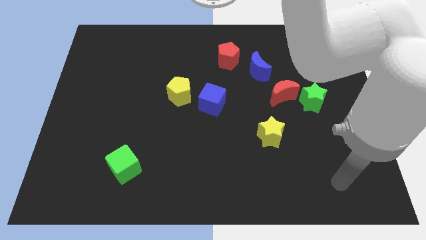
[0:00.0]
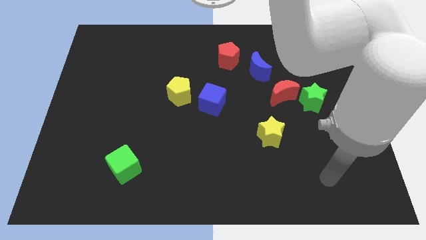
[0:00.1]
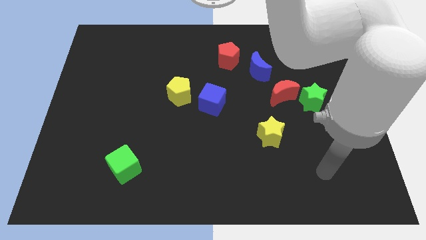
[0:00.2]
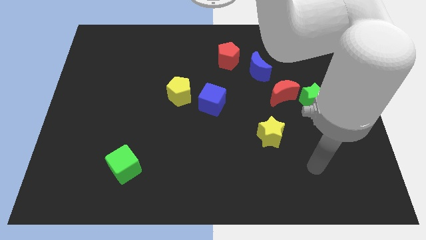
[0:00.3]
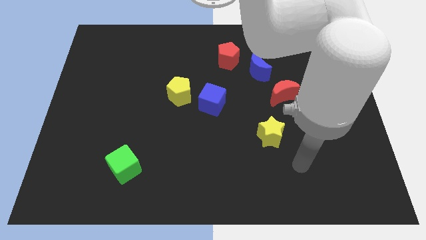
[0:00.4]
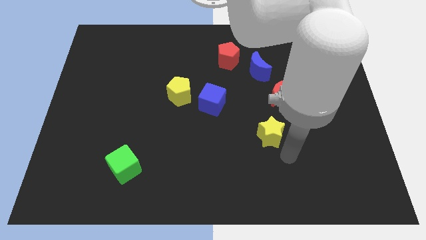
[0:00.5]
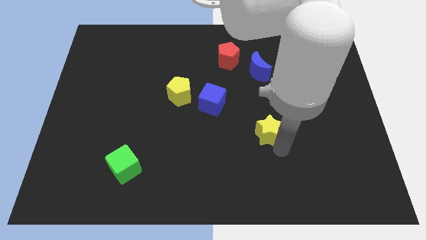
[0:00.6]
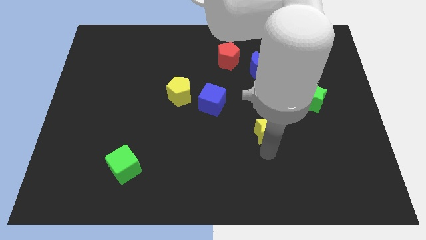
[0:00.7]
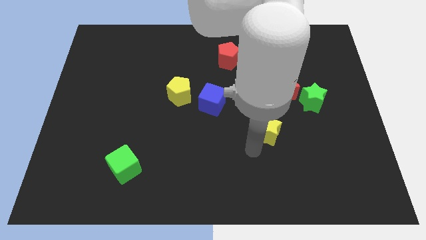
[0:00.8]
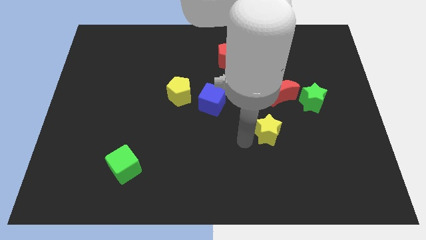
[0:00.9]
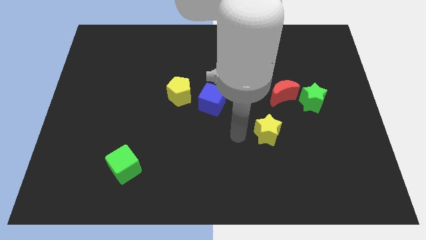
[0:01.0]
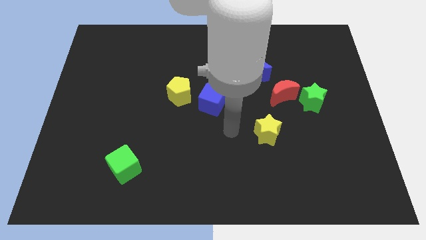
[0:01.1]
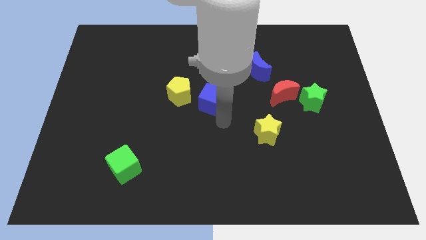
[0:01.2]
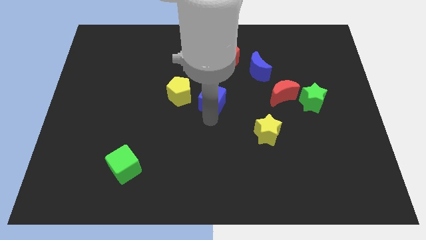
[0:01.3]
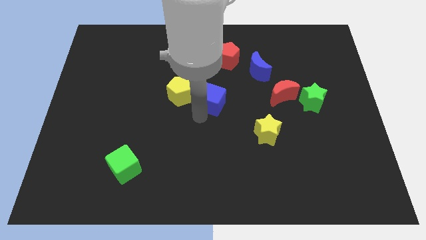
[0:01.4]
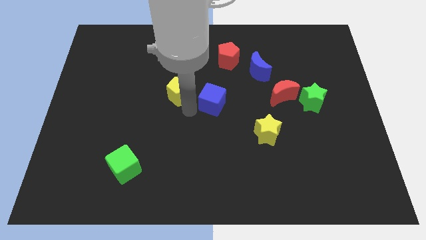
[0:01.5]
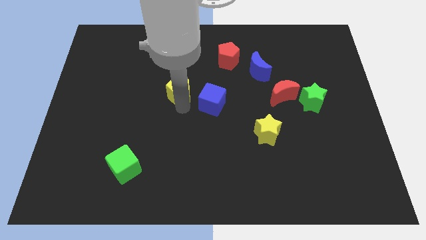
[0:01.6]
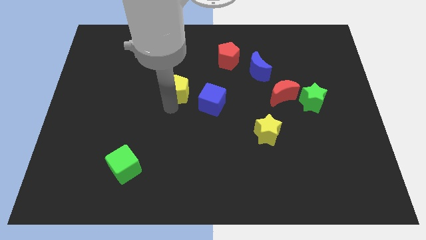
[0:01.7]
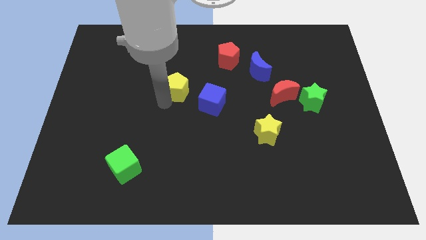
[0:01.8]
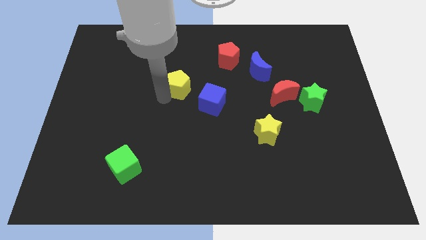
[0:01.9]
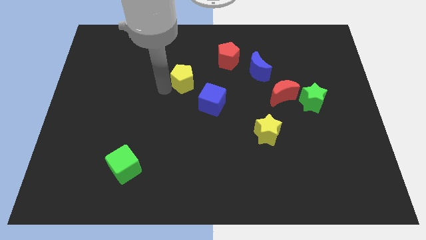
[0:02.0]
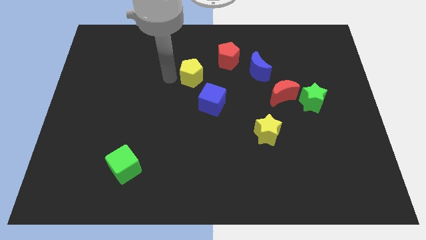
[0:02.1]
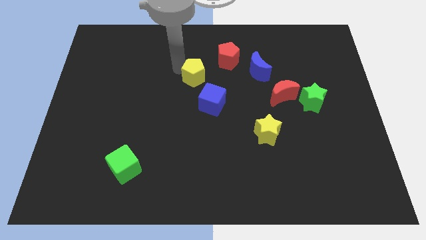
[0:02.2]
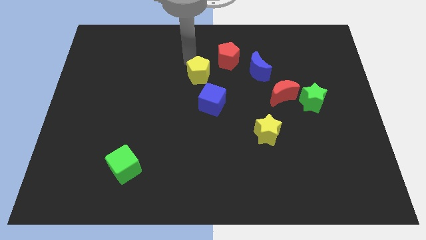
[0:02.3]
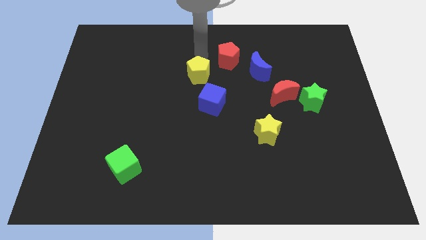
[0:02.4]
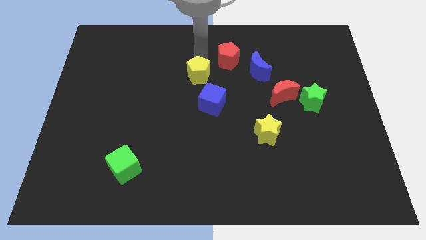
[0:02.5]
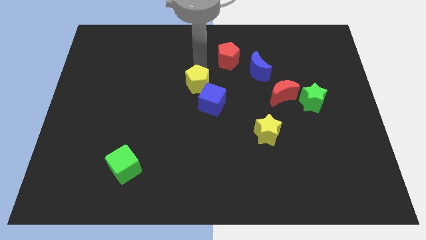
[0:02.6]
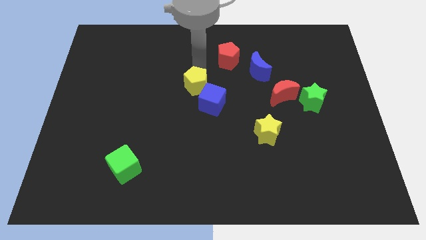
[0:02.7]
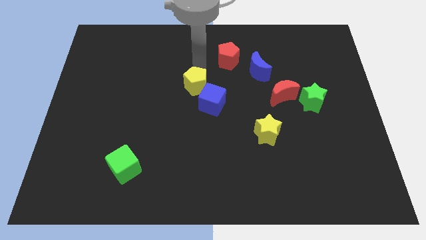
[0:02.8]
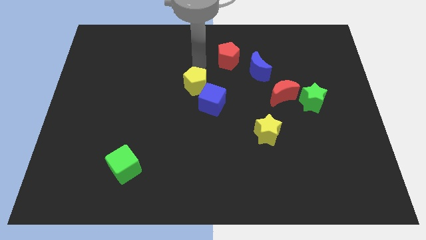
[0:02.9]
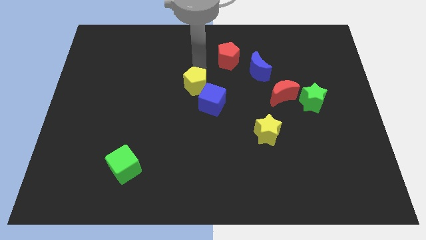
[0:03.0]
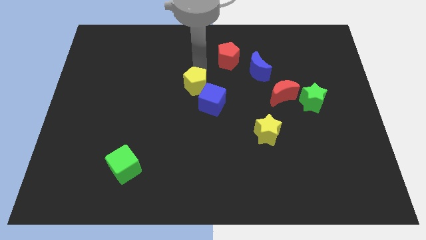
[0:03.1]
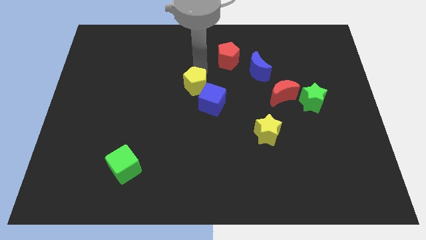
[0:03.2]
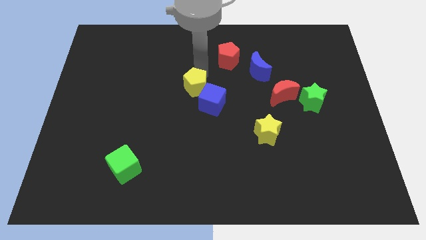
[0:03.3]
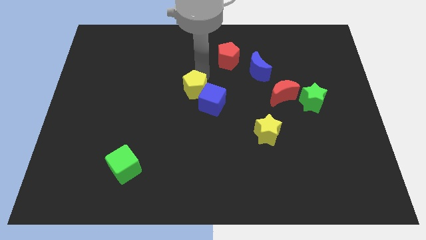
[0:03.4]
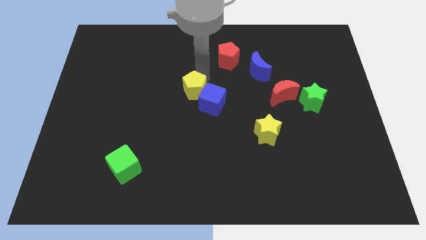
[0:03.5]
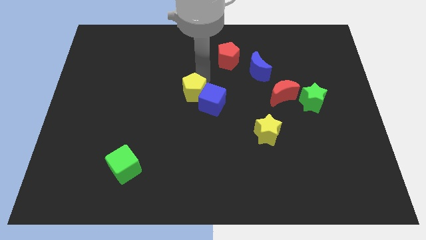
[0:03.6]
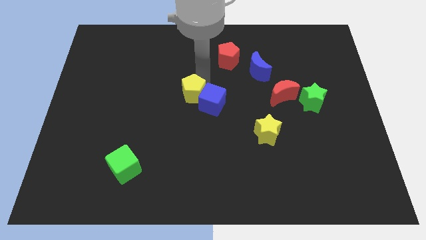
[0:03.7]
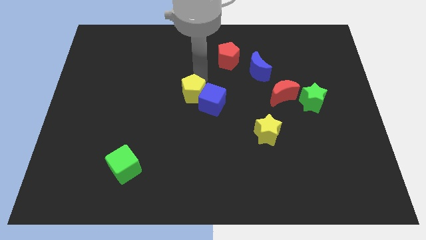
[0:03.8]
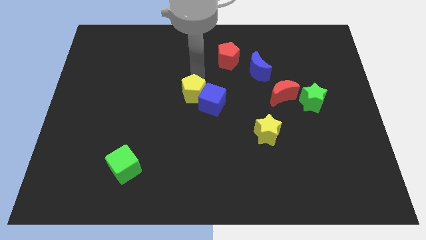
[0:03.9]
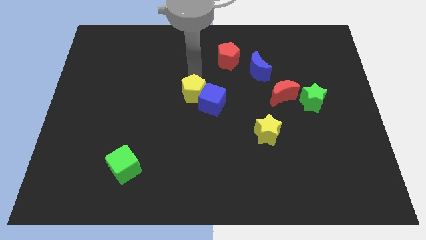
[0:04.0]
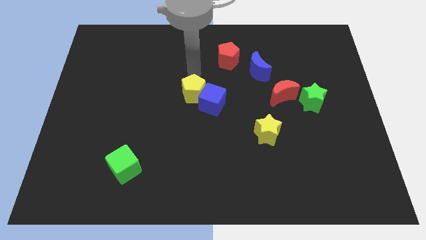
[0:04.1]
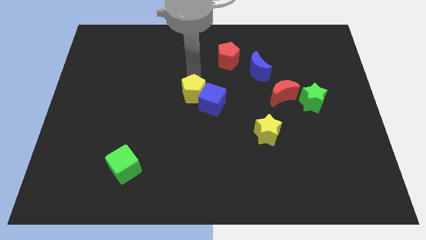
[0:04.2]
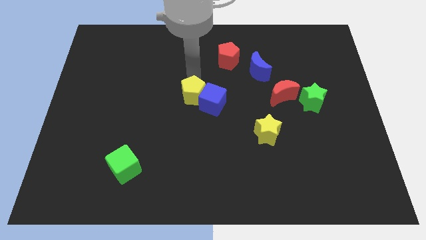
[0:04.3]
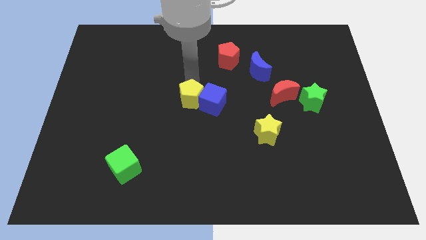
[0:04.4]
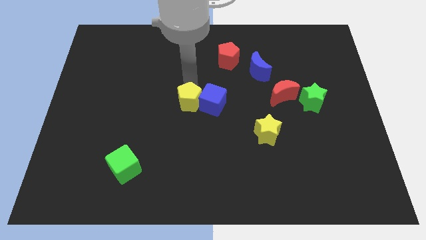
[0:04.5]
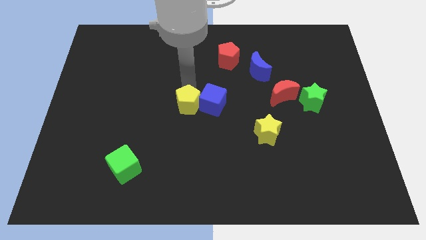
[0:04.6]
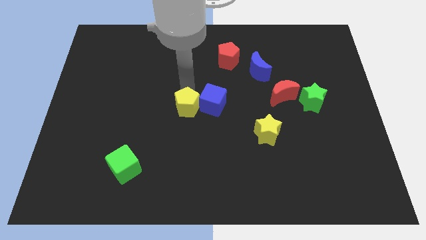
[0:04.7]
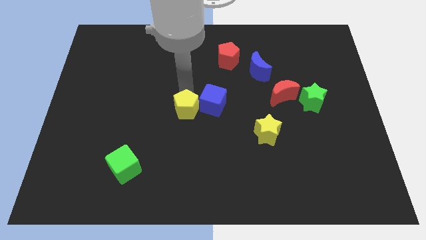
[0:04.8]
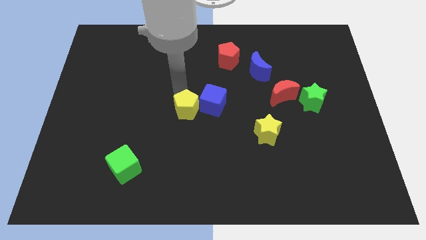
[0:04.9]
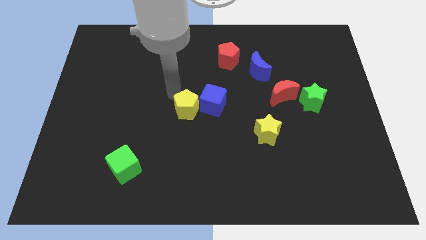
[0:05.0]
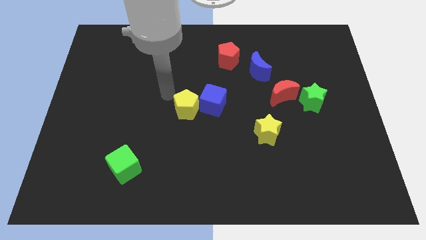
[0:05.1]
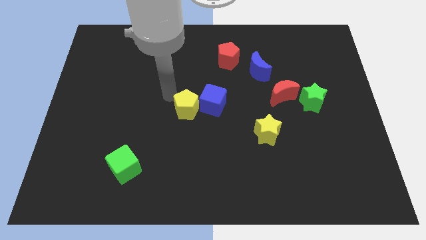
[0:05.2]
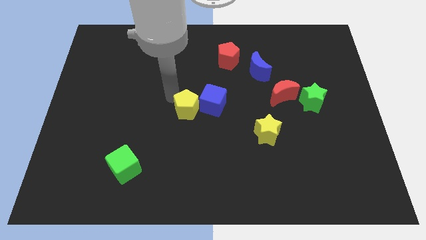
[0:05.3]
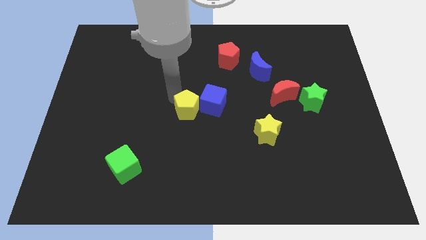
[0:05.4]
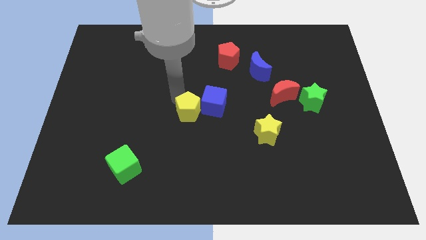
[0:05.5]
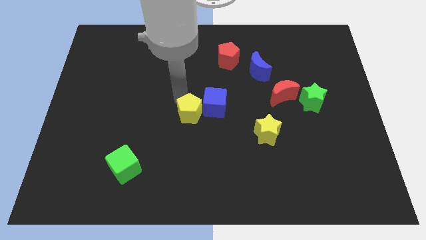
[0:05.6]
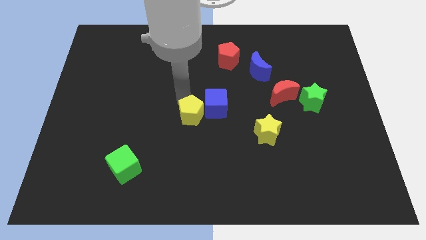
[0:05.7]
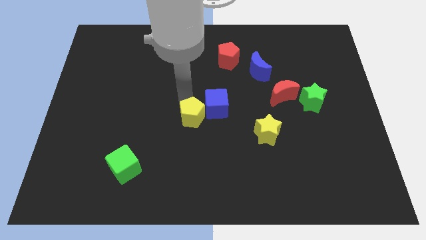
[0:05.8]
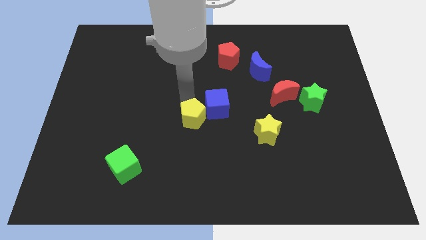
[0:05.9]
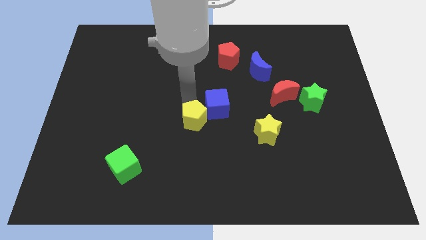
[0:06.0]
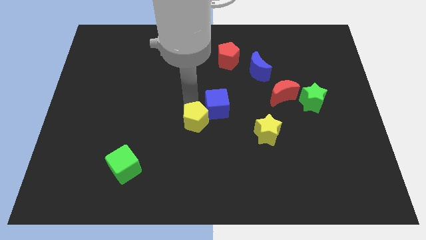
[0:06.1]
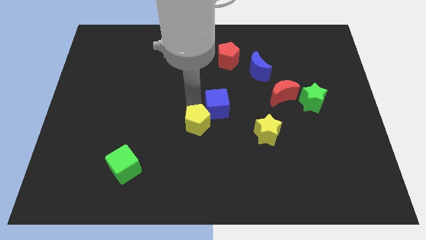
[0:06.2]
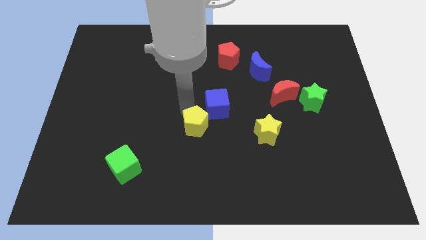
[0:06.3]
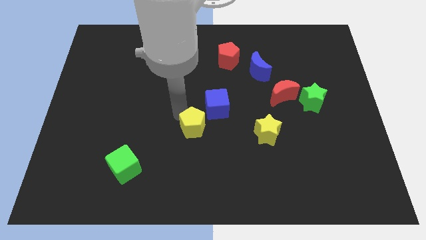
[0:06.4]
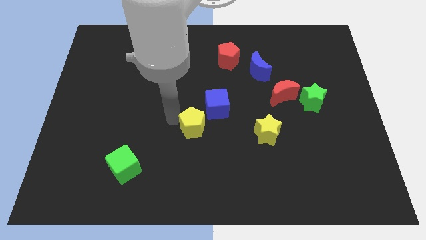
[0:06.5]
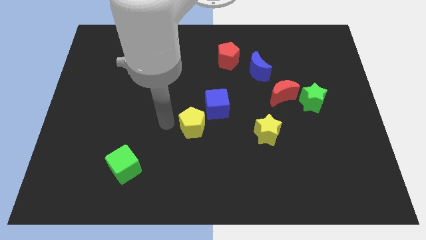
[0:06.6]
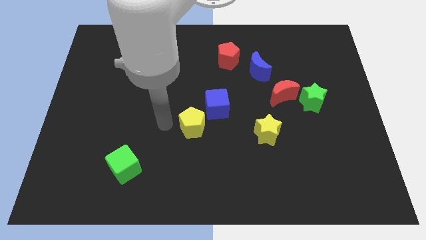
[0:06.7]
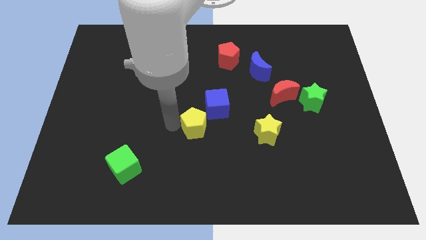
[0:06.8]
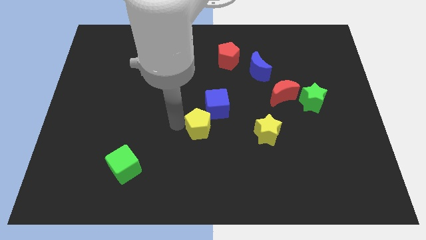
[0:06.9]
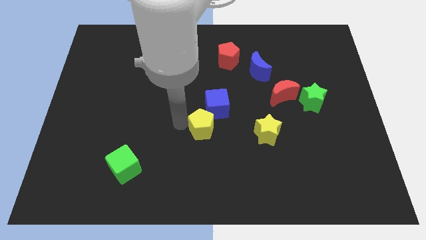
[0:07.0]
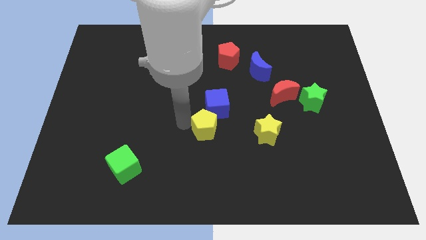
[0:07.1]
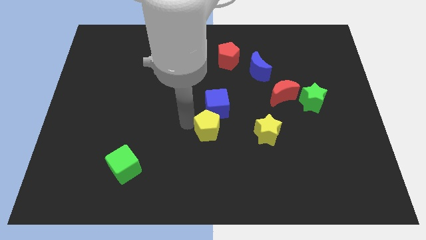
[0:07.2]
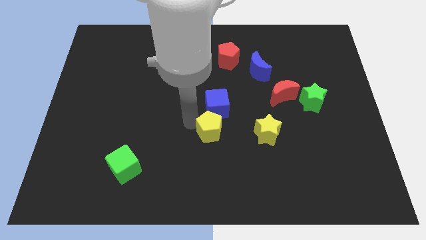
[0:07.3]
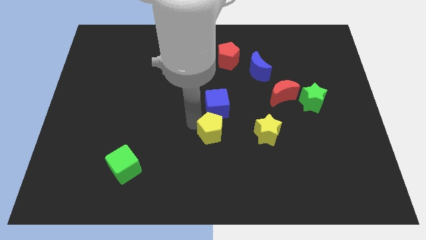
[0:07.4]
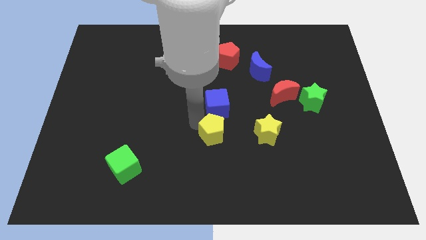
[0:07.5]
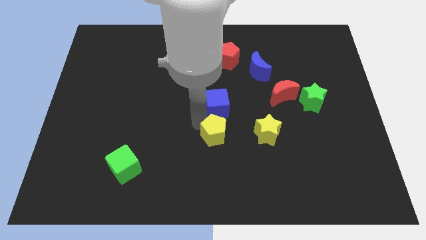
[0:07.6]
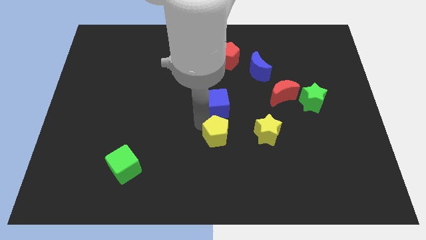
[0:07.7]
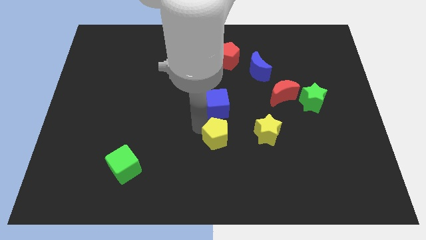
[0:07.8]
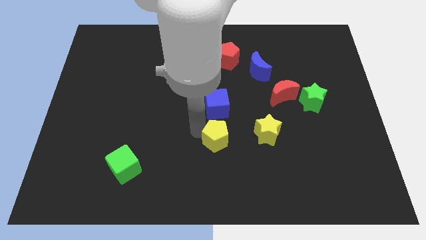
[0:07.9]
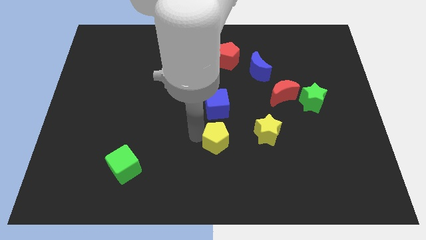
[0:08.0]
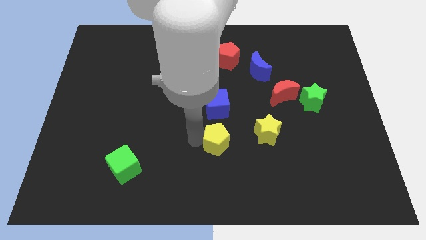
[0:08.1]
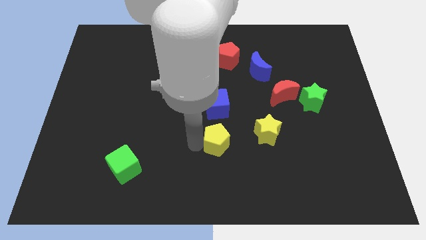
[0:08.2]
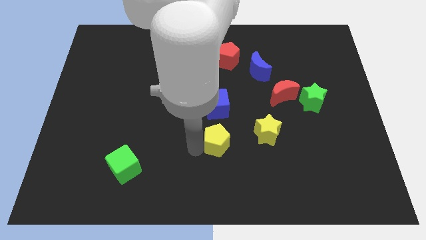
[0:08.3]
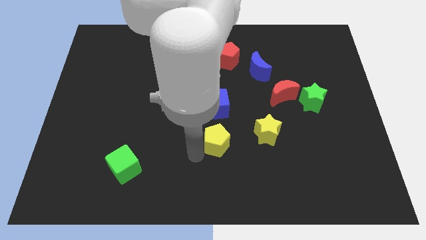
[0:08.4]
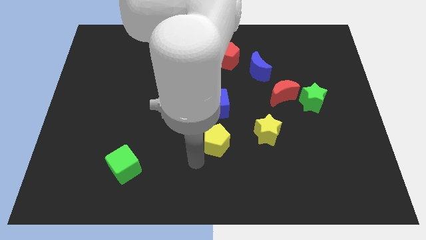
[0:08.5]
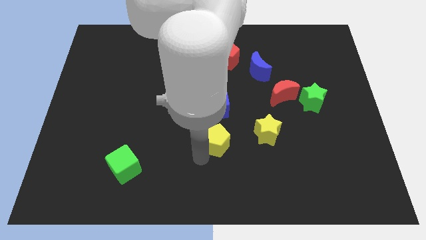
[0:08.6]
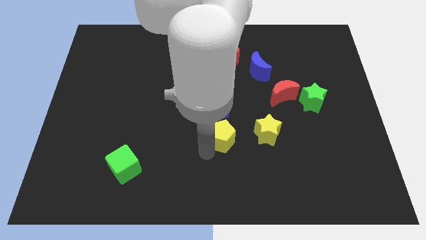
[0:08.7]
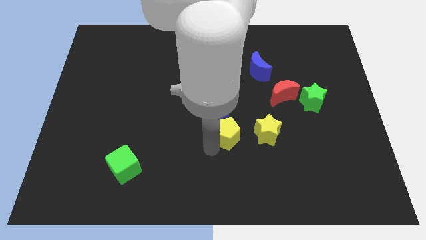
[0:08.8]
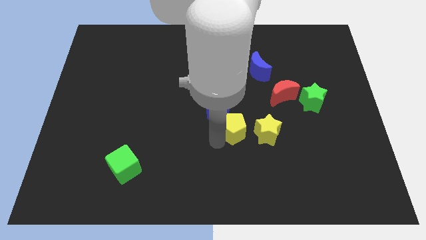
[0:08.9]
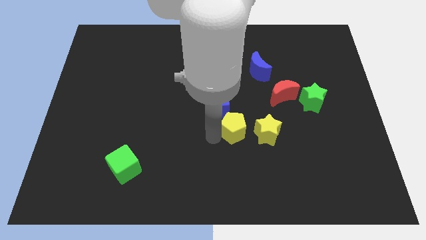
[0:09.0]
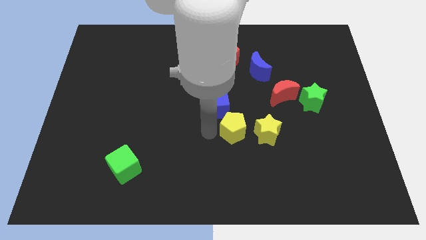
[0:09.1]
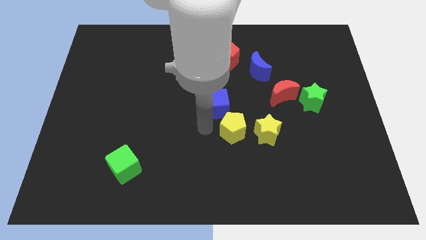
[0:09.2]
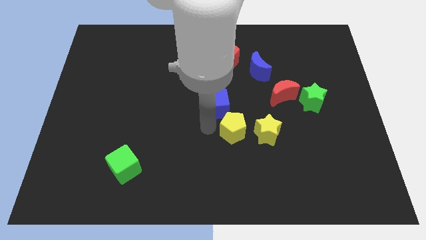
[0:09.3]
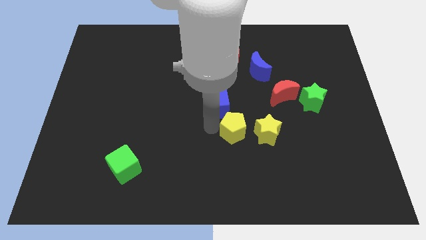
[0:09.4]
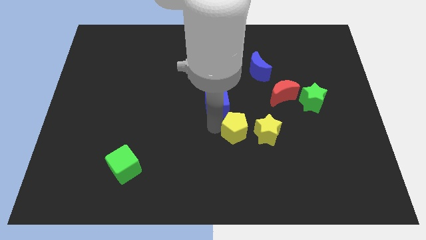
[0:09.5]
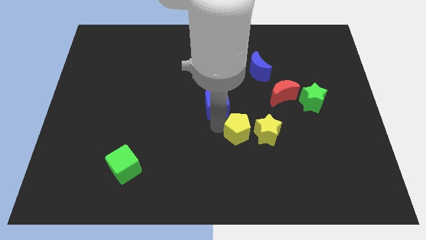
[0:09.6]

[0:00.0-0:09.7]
put the yellow pentagon towards the yellow star
